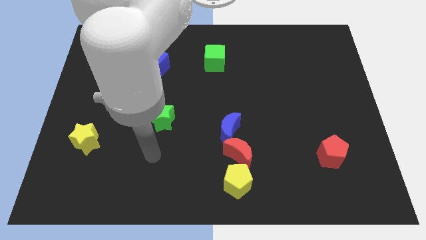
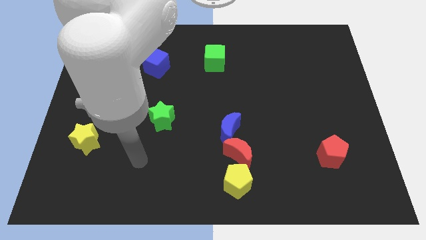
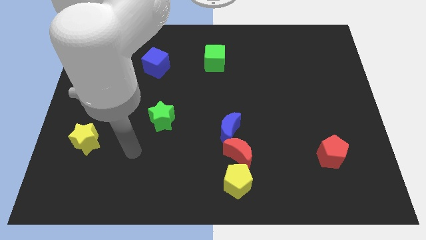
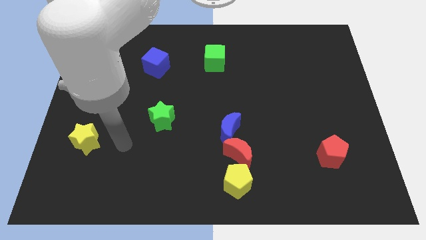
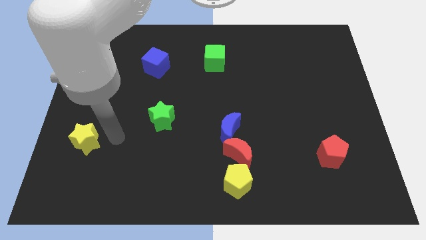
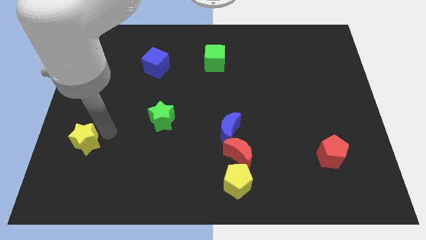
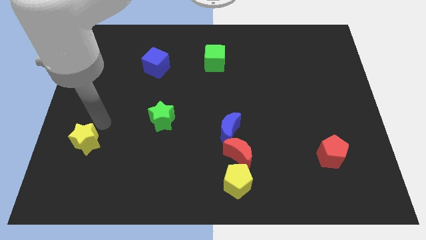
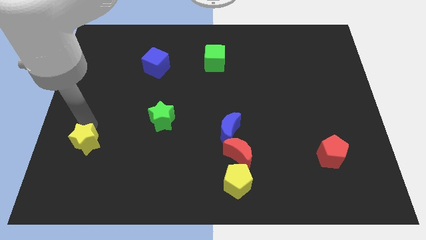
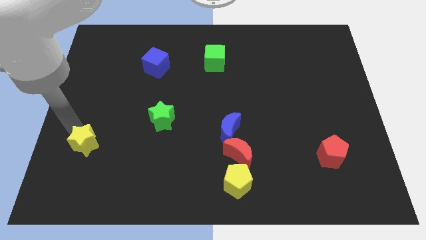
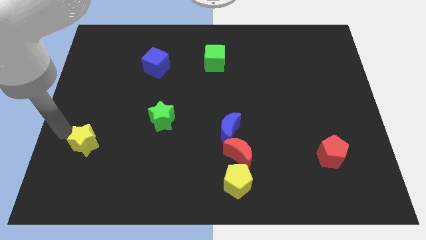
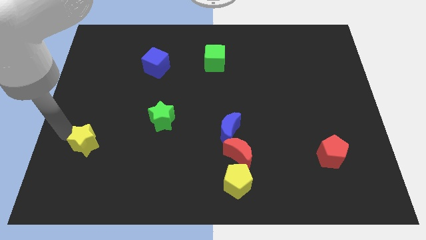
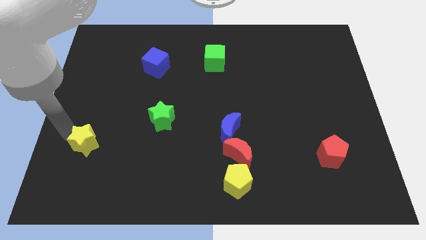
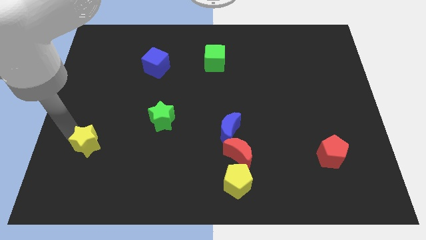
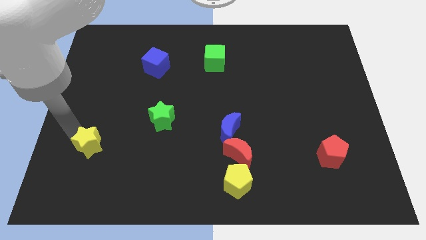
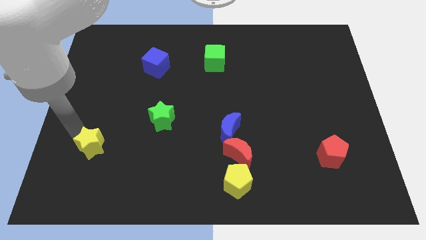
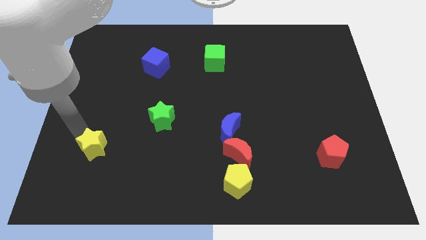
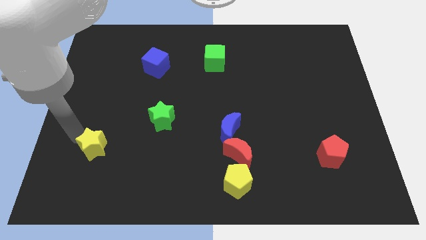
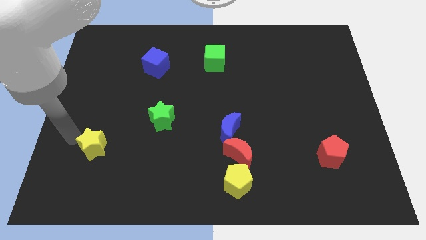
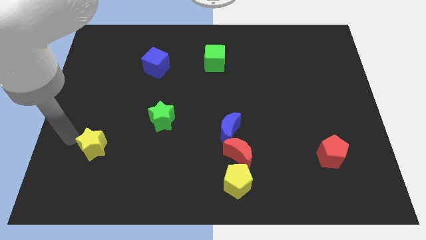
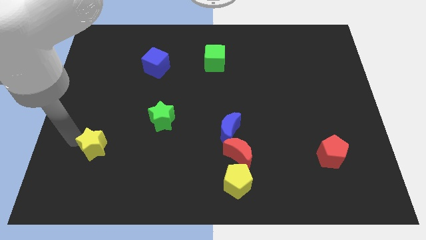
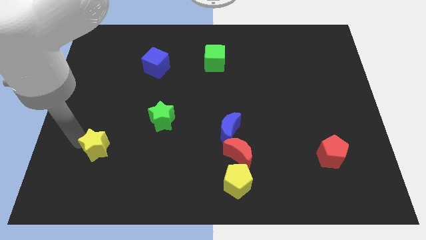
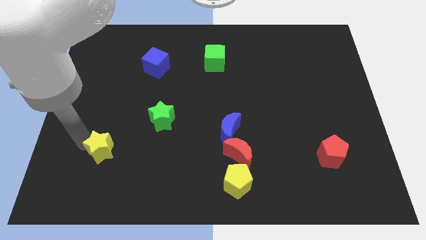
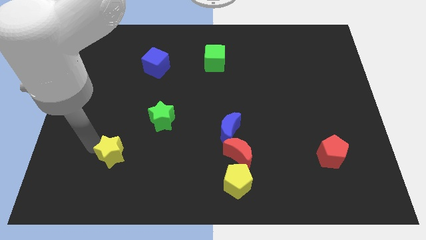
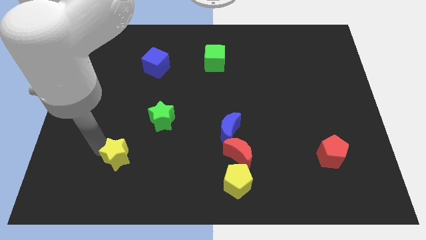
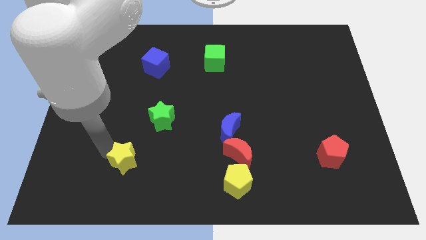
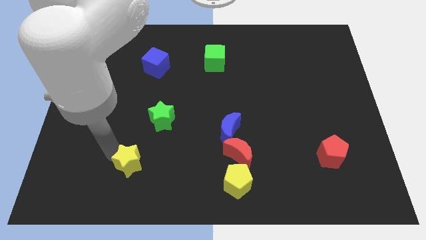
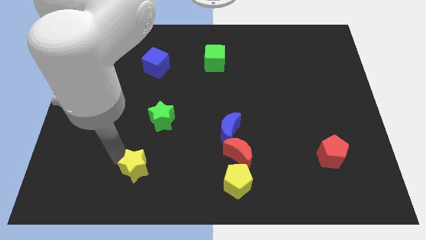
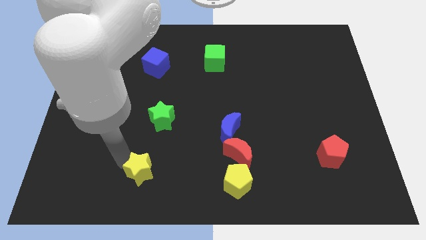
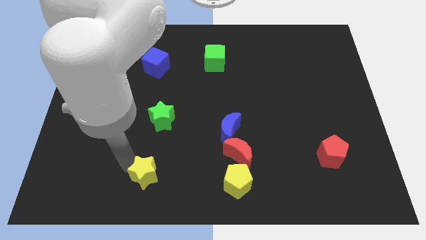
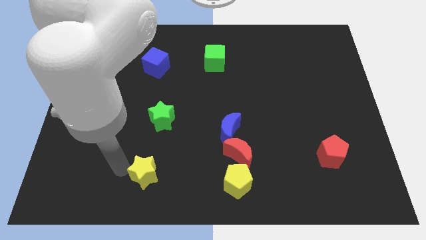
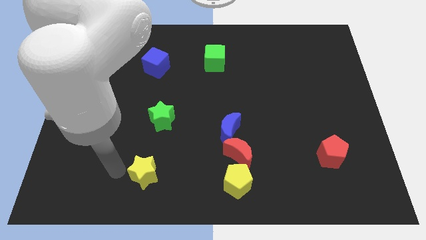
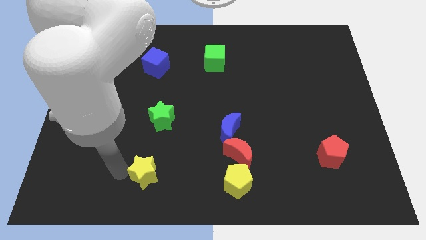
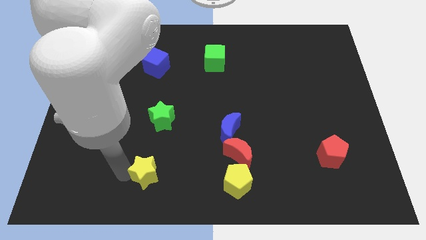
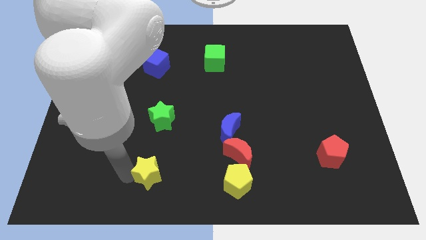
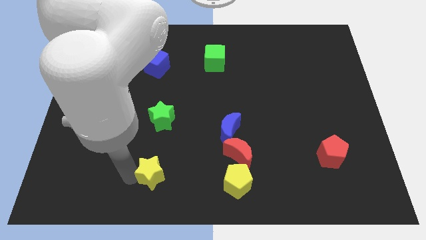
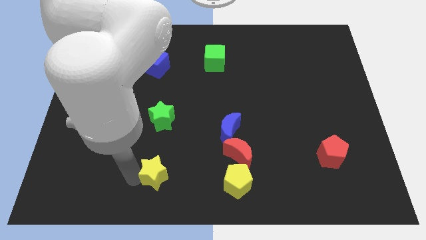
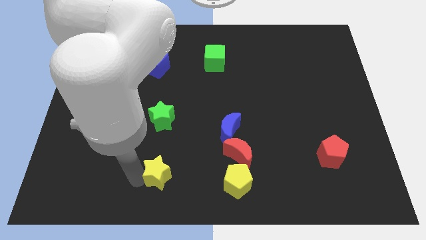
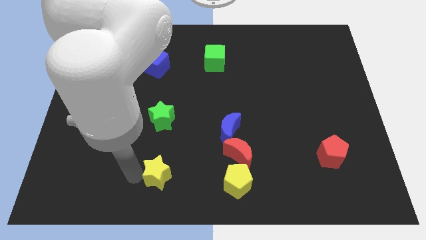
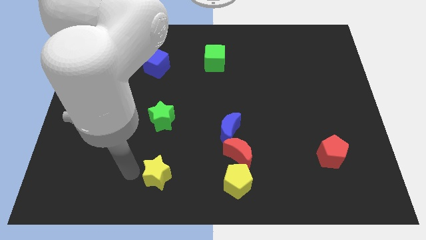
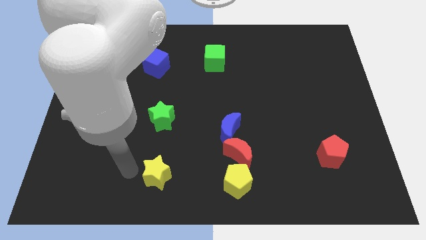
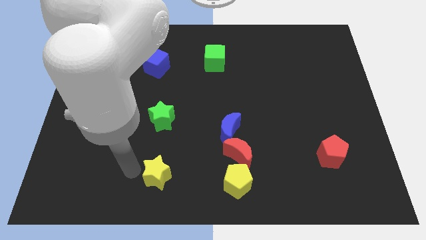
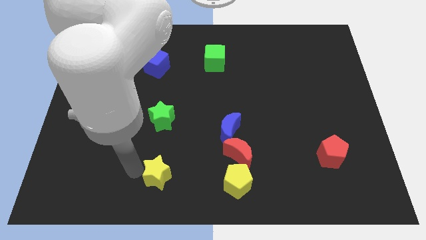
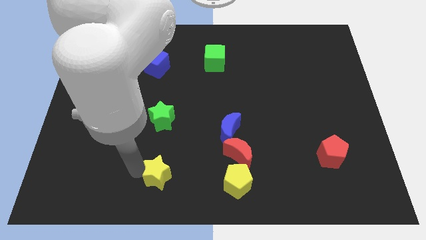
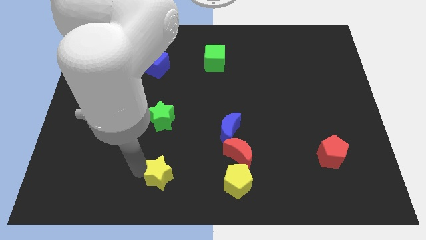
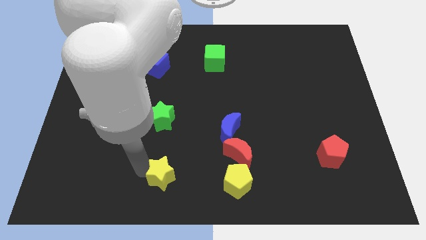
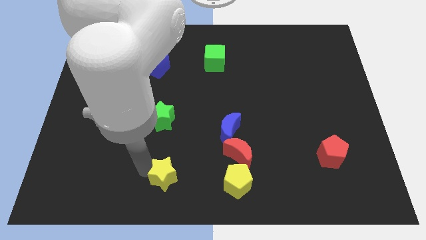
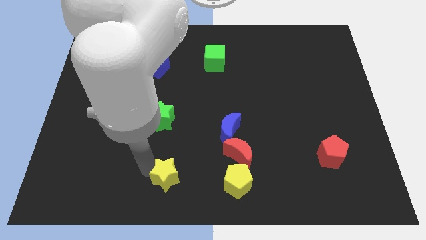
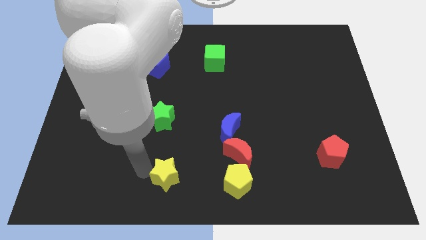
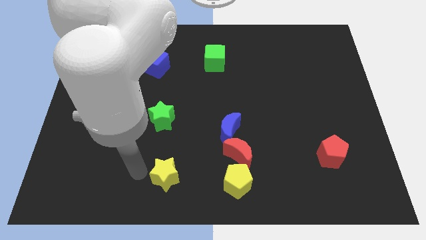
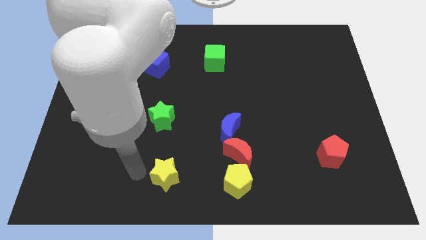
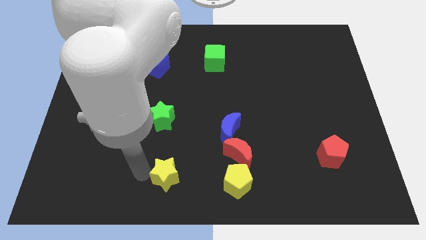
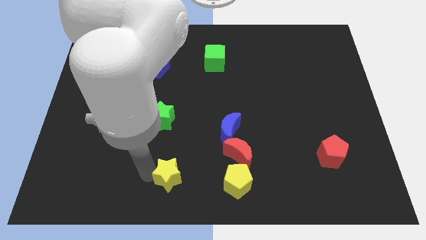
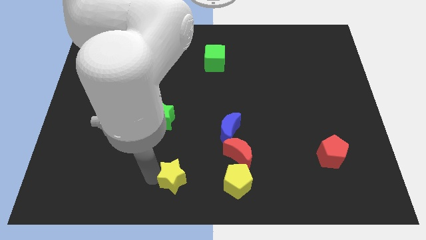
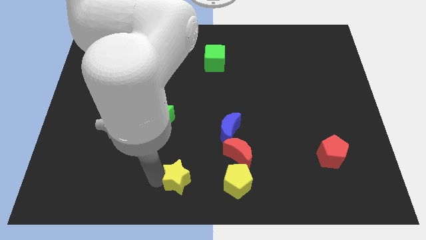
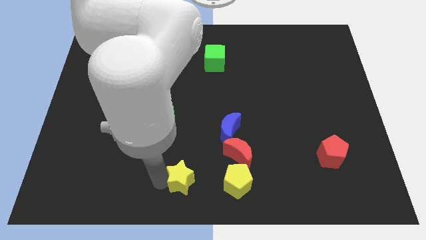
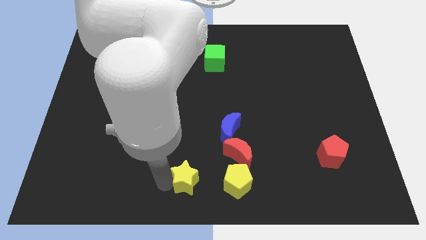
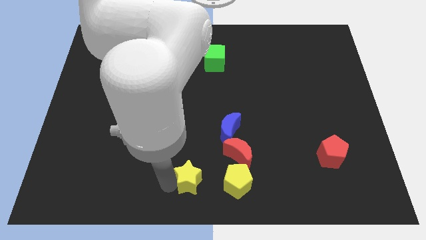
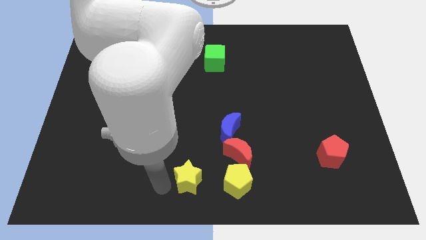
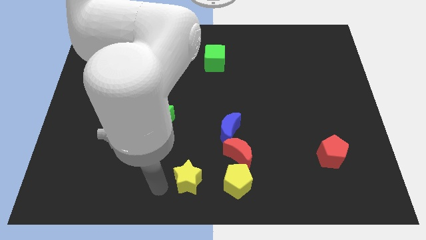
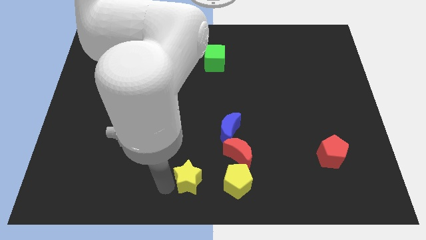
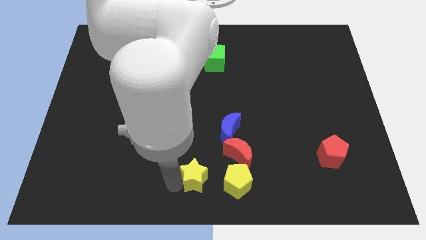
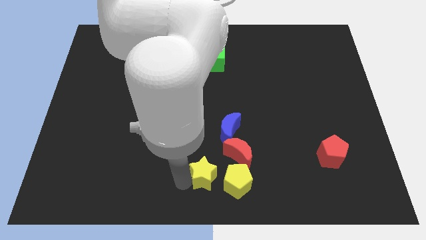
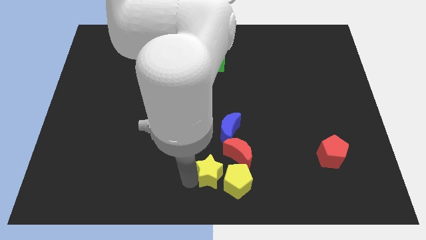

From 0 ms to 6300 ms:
put the yellow star next to the yellow pentagon
